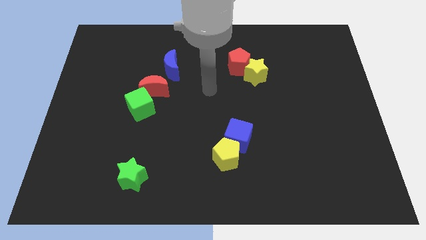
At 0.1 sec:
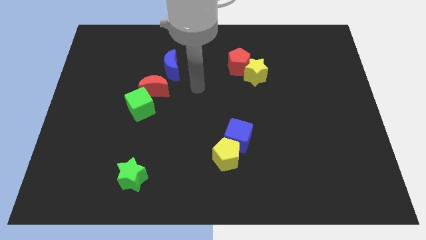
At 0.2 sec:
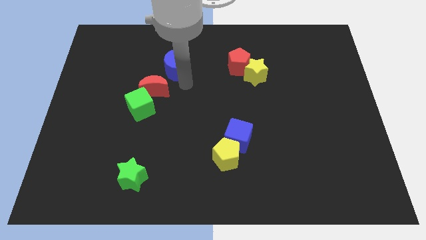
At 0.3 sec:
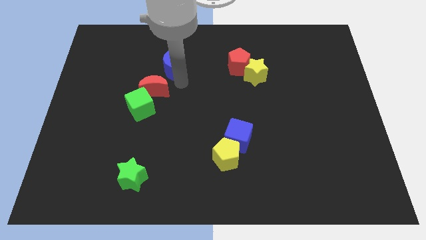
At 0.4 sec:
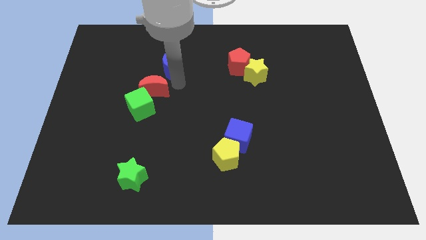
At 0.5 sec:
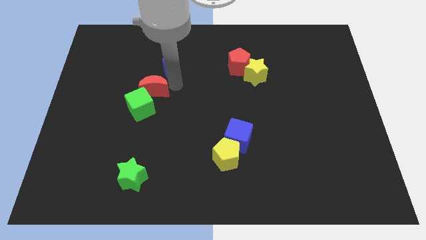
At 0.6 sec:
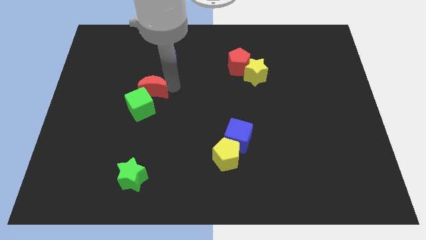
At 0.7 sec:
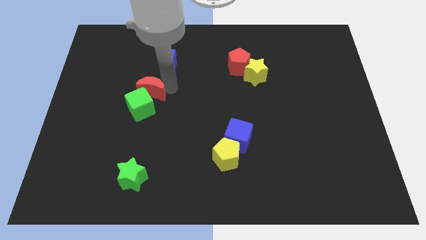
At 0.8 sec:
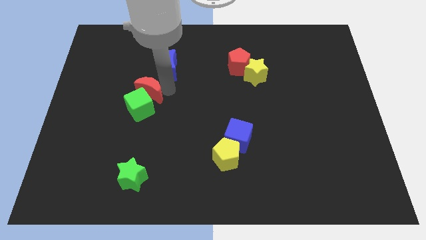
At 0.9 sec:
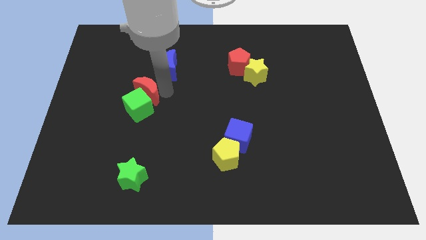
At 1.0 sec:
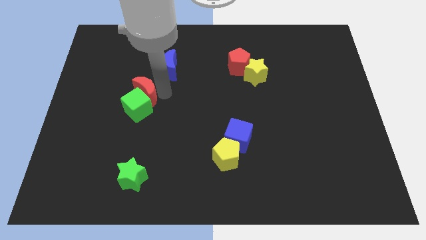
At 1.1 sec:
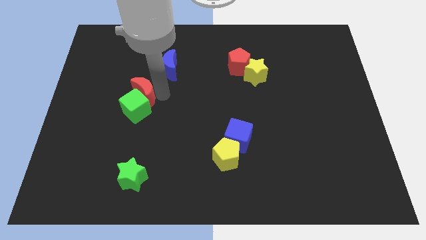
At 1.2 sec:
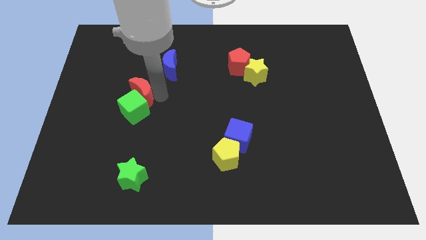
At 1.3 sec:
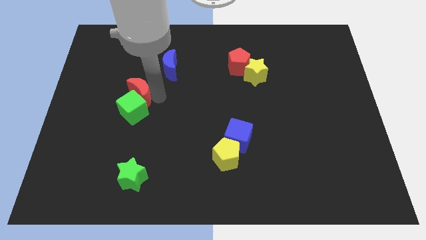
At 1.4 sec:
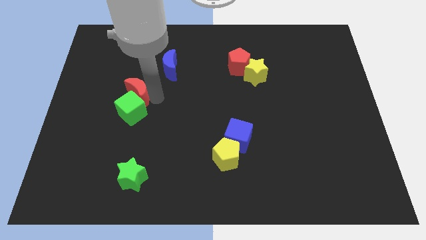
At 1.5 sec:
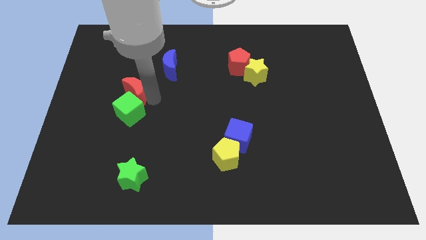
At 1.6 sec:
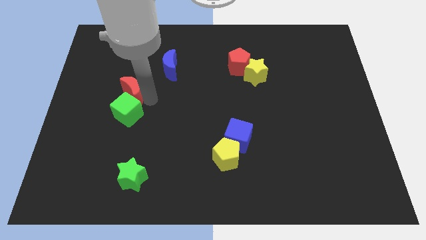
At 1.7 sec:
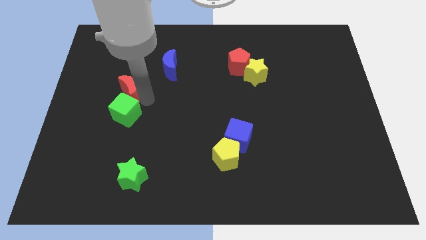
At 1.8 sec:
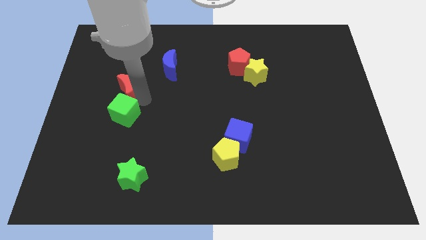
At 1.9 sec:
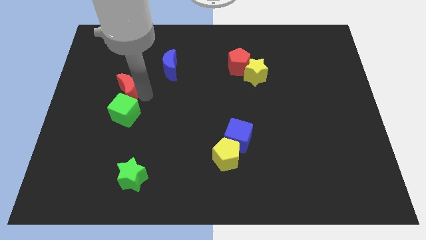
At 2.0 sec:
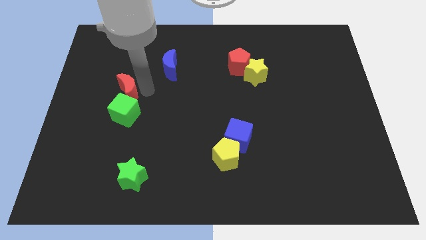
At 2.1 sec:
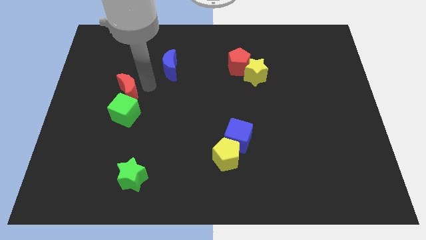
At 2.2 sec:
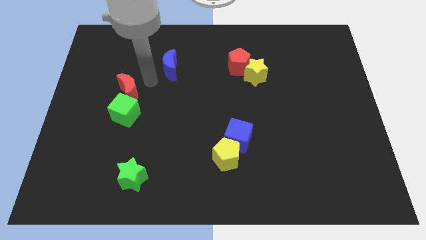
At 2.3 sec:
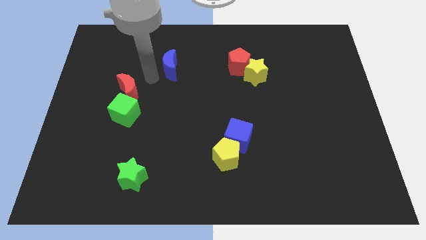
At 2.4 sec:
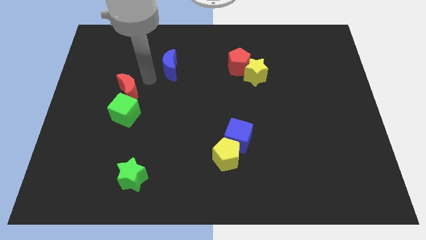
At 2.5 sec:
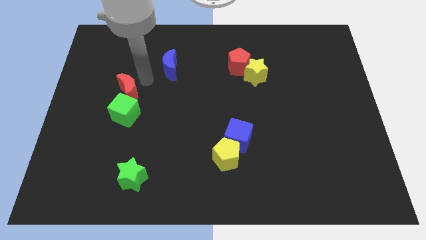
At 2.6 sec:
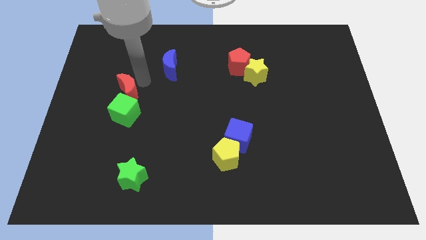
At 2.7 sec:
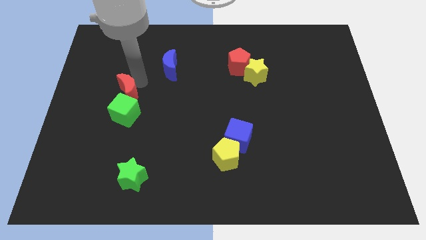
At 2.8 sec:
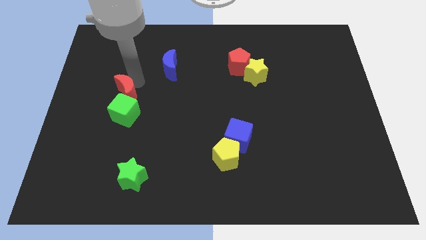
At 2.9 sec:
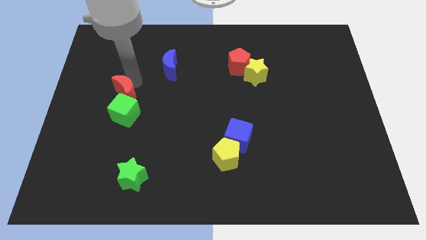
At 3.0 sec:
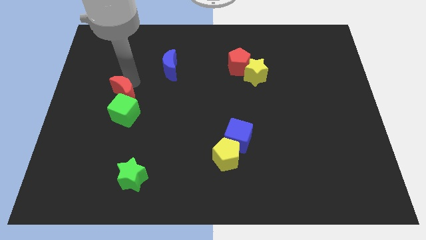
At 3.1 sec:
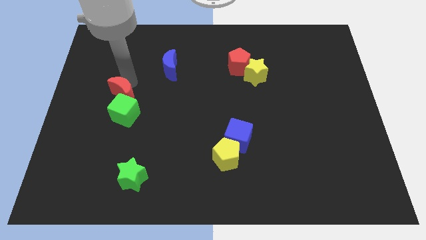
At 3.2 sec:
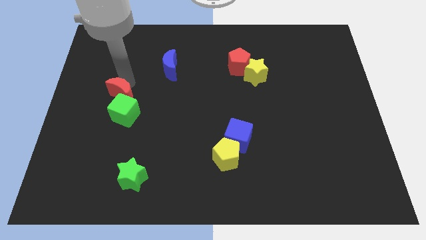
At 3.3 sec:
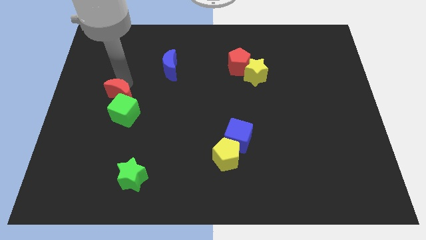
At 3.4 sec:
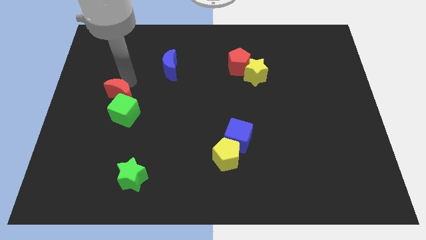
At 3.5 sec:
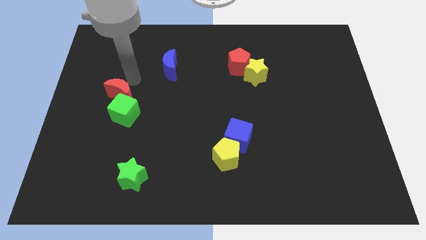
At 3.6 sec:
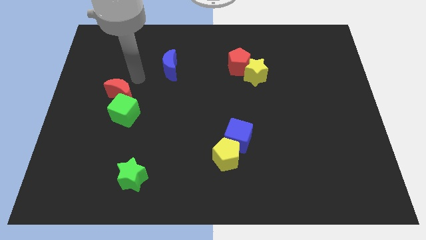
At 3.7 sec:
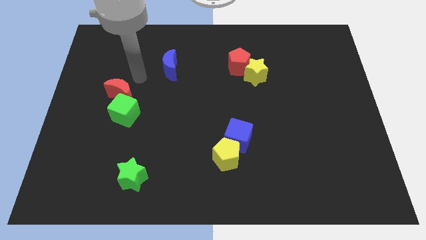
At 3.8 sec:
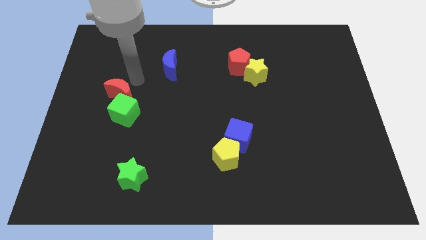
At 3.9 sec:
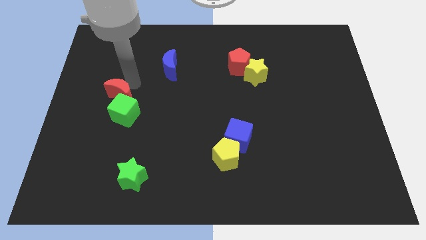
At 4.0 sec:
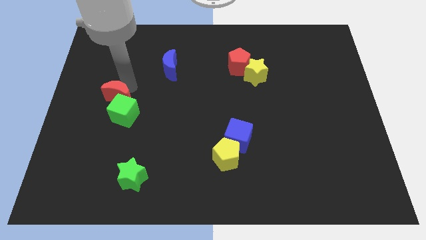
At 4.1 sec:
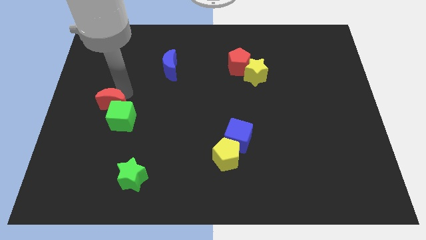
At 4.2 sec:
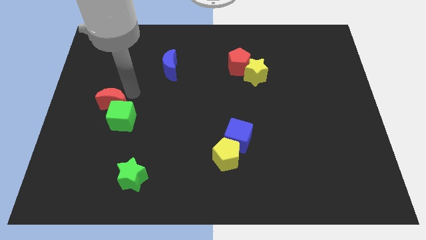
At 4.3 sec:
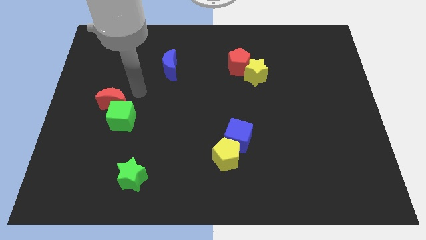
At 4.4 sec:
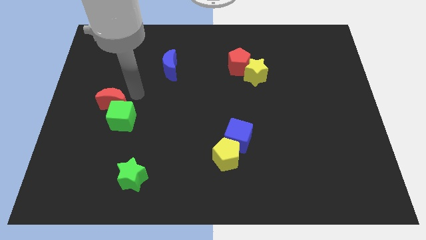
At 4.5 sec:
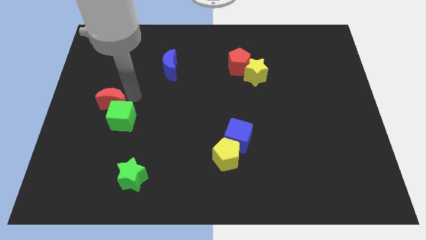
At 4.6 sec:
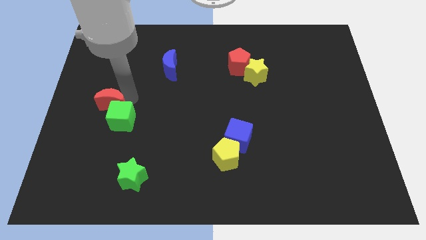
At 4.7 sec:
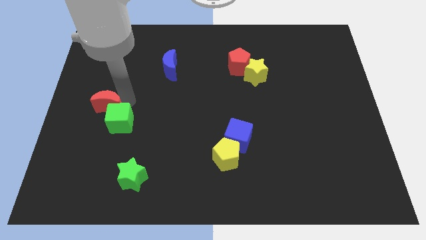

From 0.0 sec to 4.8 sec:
slide the red moon to the left of the green cube

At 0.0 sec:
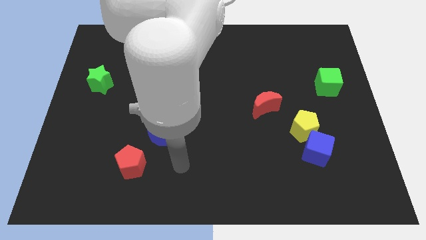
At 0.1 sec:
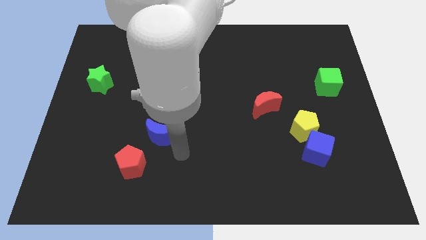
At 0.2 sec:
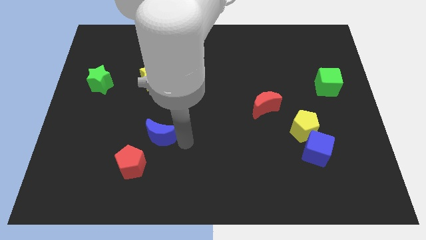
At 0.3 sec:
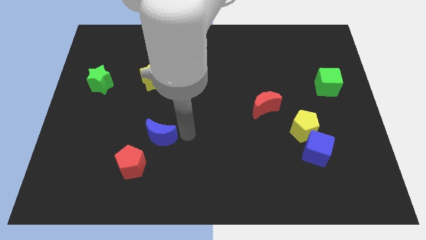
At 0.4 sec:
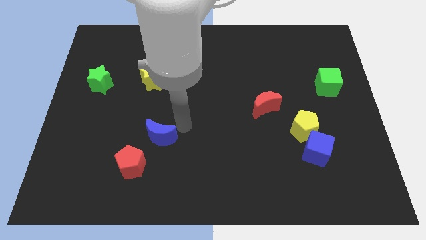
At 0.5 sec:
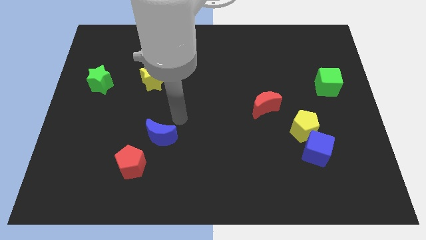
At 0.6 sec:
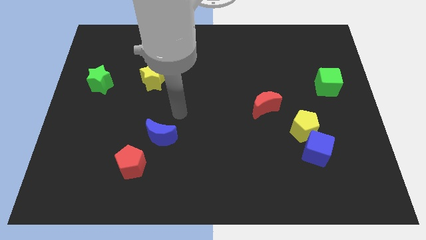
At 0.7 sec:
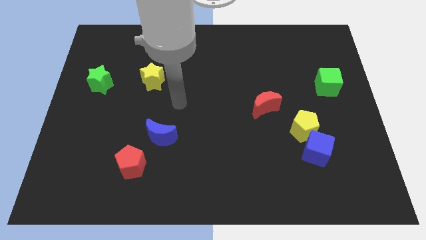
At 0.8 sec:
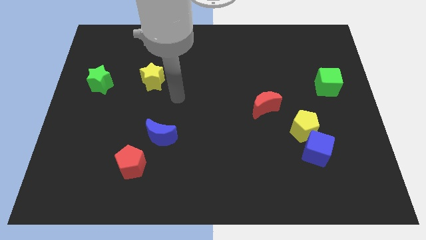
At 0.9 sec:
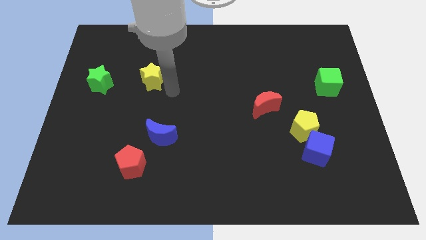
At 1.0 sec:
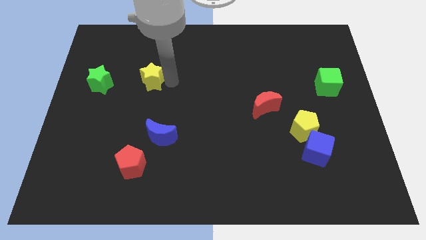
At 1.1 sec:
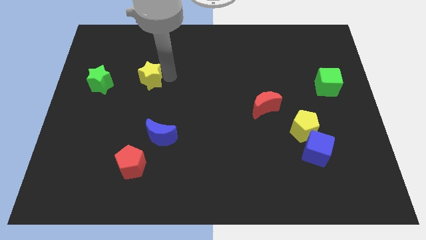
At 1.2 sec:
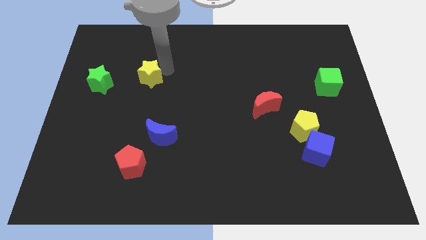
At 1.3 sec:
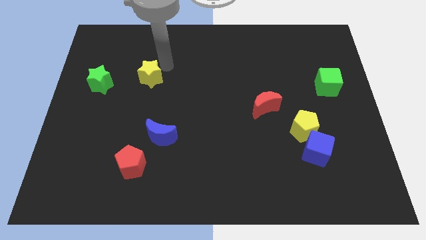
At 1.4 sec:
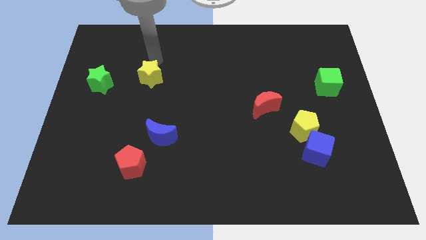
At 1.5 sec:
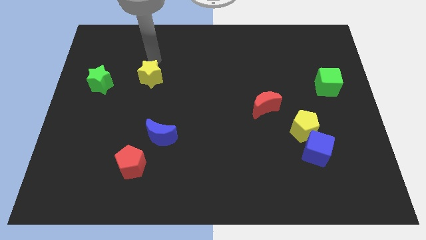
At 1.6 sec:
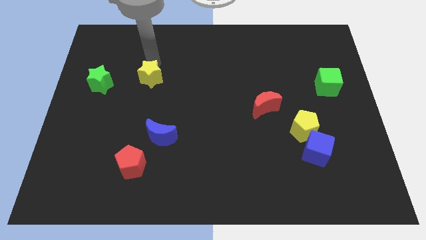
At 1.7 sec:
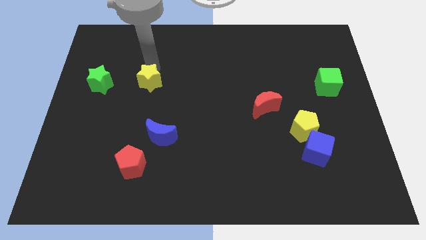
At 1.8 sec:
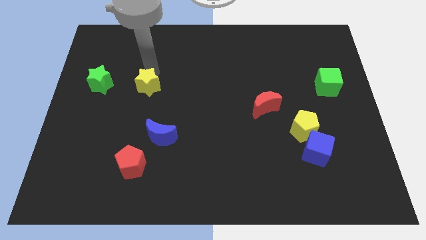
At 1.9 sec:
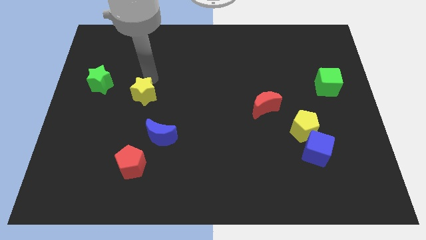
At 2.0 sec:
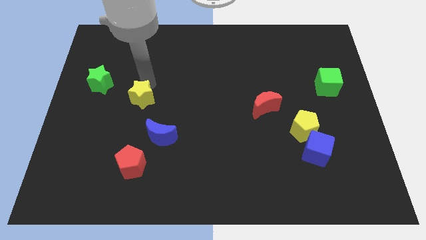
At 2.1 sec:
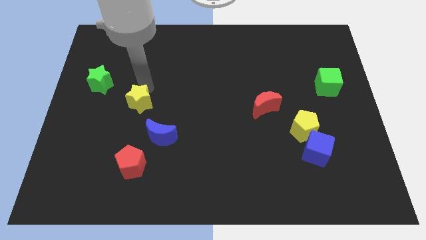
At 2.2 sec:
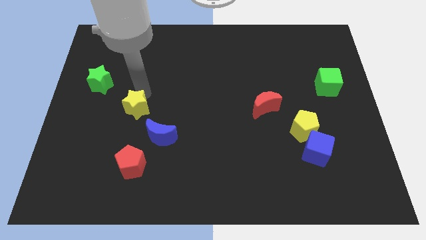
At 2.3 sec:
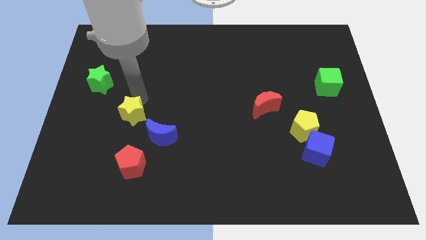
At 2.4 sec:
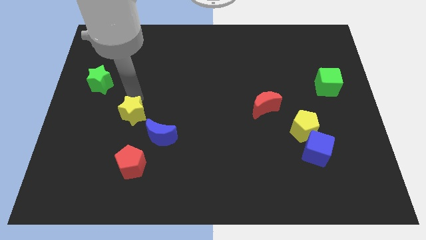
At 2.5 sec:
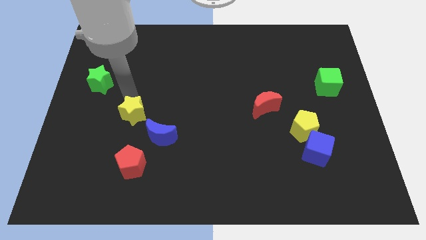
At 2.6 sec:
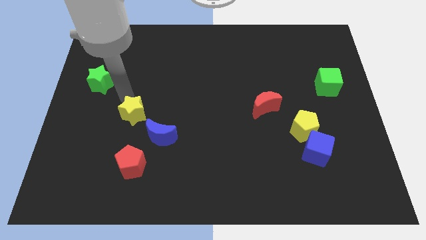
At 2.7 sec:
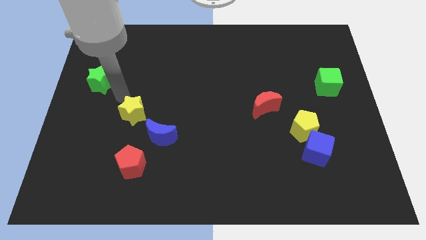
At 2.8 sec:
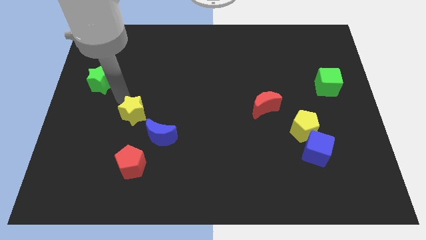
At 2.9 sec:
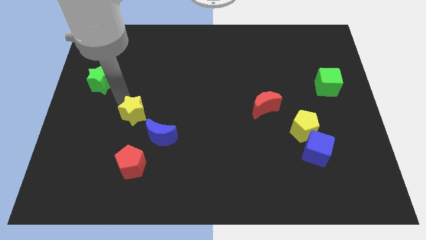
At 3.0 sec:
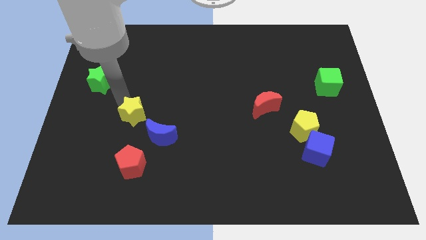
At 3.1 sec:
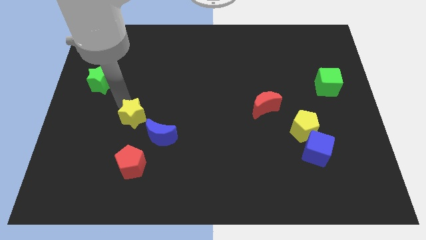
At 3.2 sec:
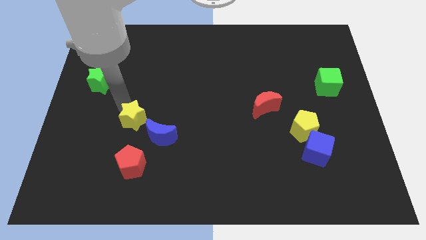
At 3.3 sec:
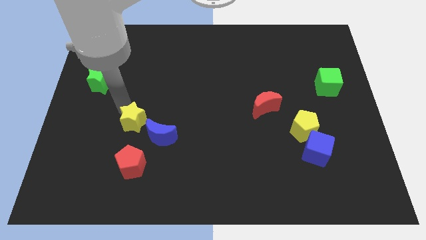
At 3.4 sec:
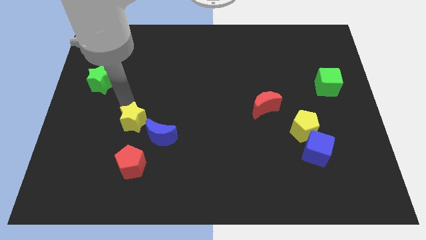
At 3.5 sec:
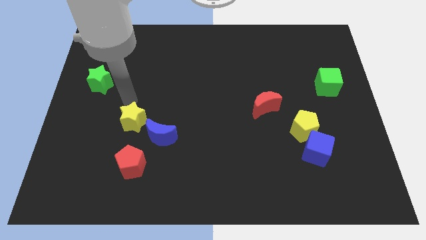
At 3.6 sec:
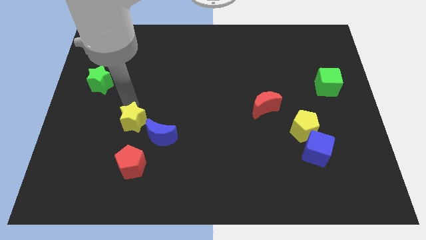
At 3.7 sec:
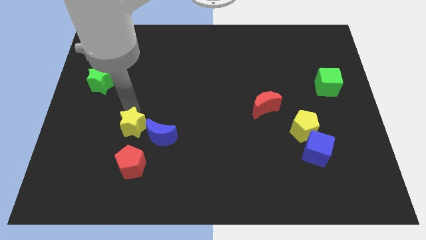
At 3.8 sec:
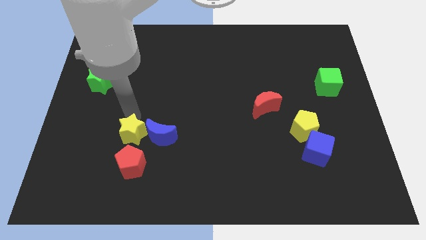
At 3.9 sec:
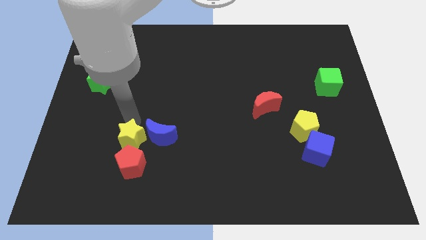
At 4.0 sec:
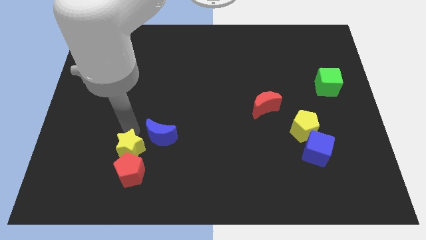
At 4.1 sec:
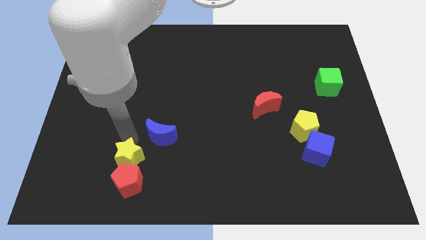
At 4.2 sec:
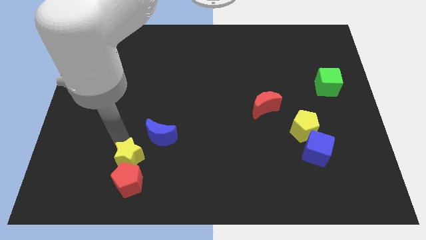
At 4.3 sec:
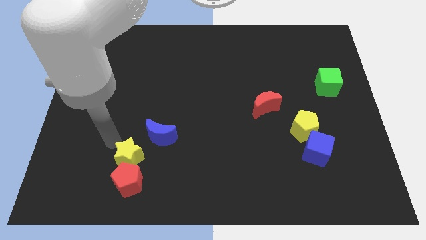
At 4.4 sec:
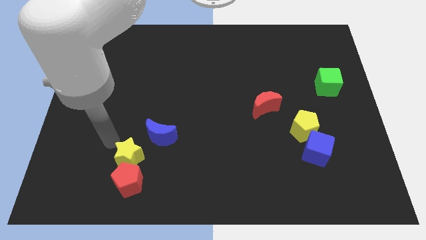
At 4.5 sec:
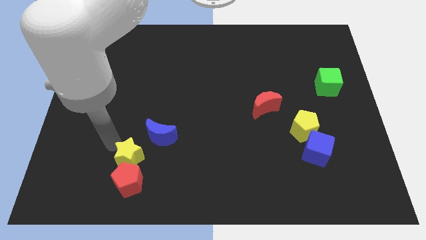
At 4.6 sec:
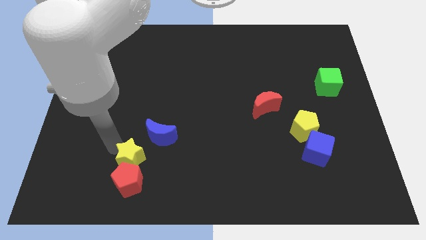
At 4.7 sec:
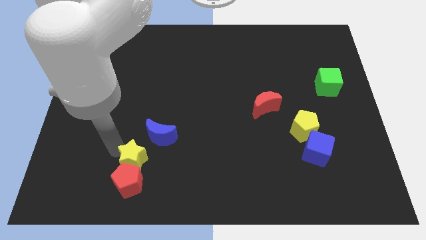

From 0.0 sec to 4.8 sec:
push the yellow star to the bottom of the blue moon
